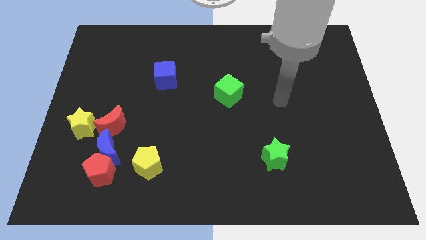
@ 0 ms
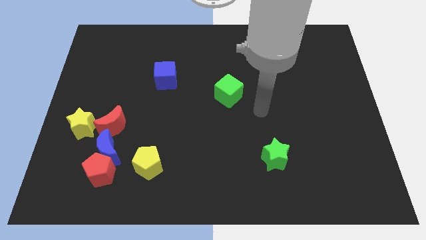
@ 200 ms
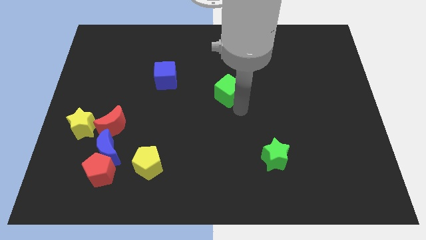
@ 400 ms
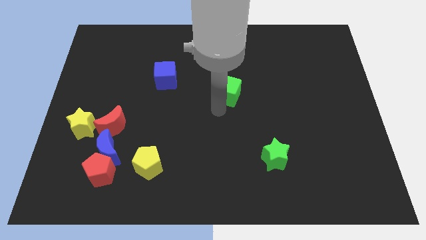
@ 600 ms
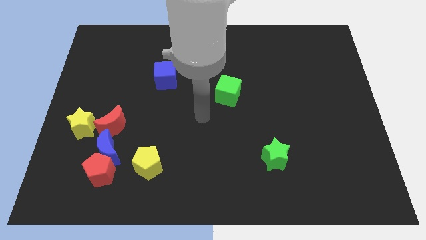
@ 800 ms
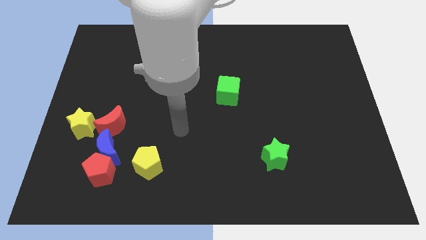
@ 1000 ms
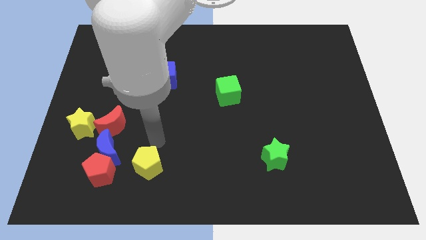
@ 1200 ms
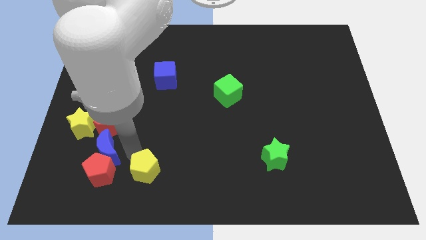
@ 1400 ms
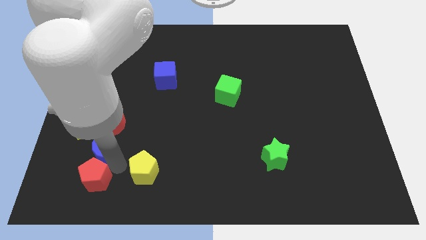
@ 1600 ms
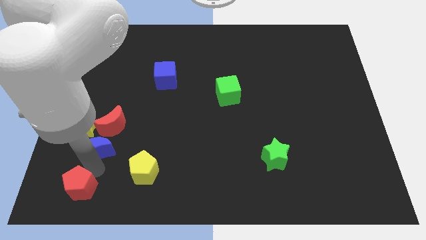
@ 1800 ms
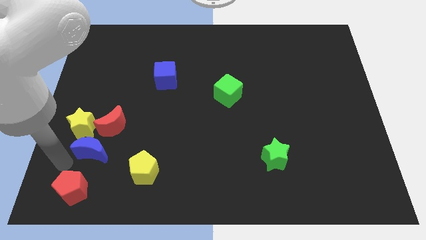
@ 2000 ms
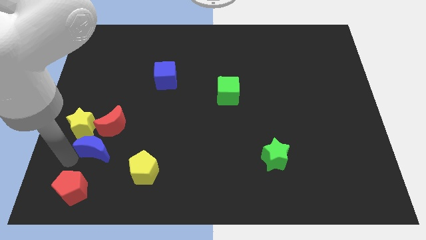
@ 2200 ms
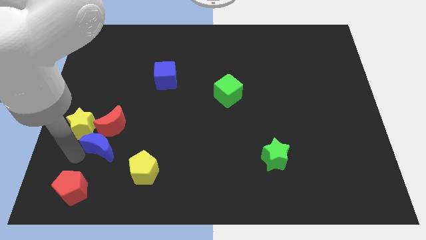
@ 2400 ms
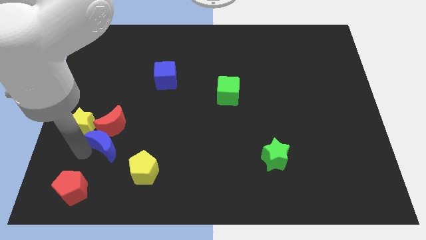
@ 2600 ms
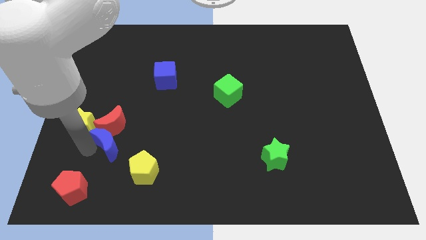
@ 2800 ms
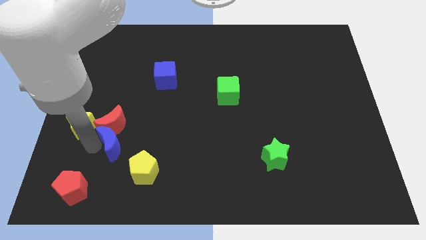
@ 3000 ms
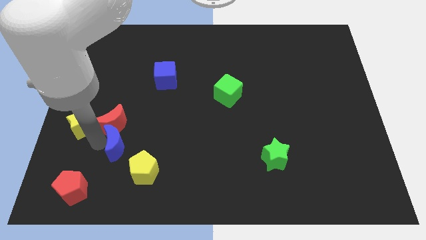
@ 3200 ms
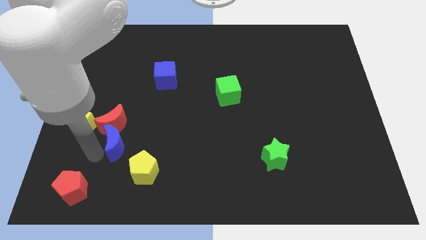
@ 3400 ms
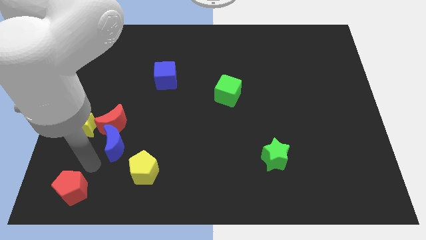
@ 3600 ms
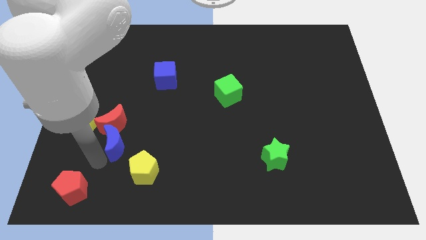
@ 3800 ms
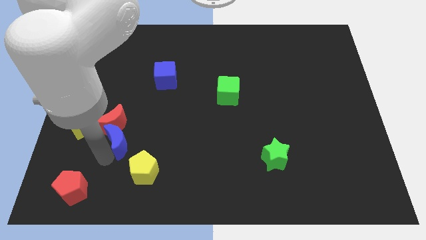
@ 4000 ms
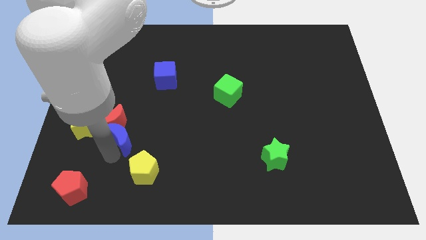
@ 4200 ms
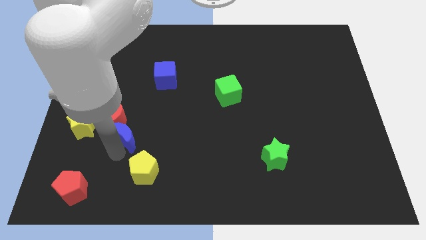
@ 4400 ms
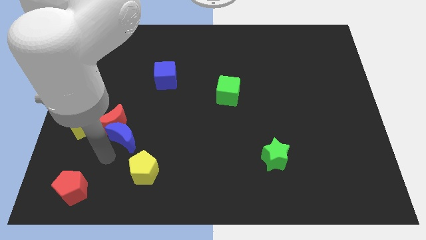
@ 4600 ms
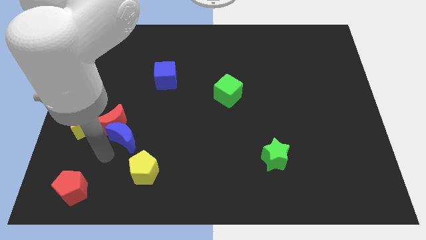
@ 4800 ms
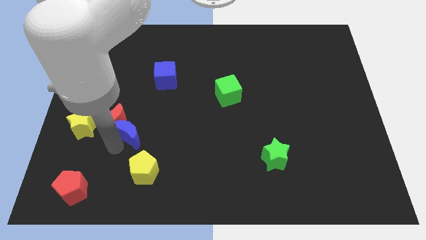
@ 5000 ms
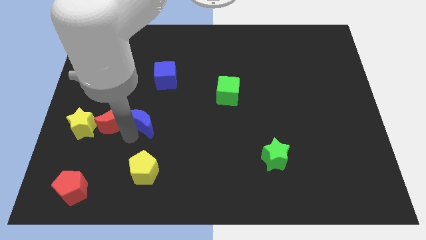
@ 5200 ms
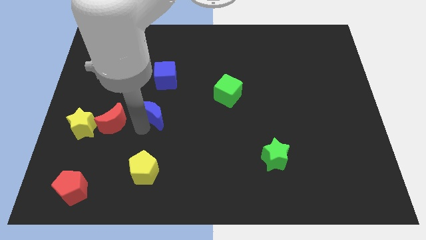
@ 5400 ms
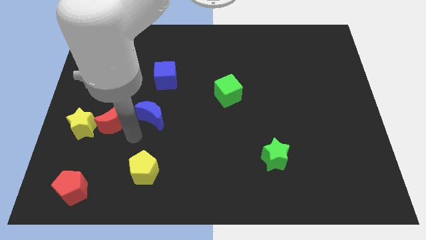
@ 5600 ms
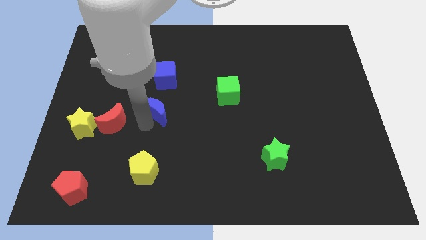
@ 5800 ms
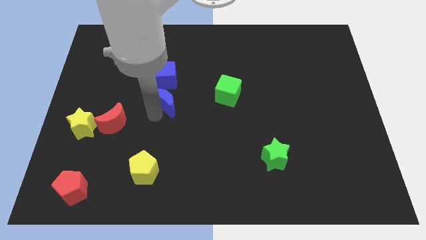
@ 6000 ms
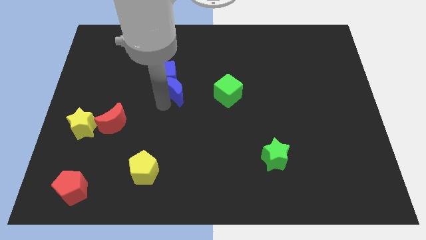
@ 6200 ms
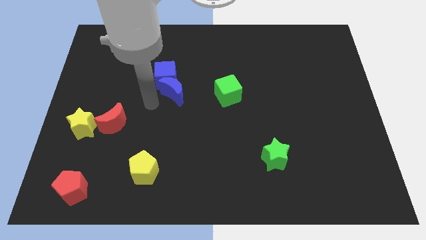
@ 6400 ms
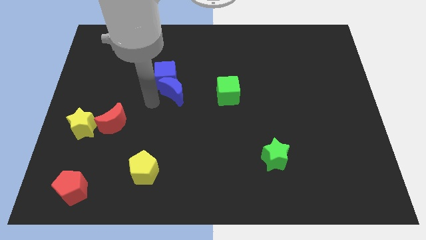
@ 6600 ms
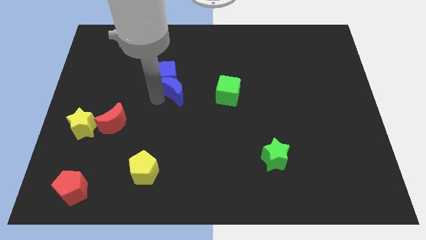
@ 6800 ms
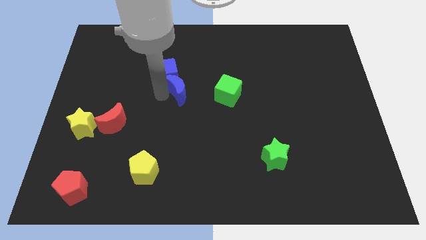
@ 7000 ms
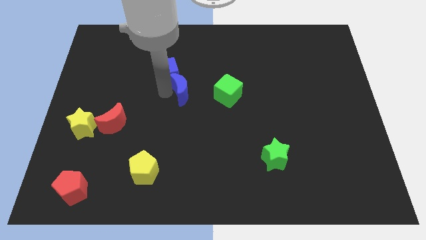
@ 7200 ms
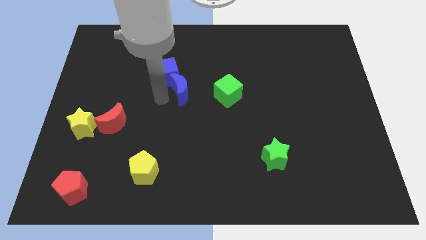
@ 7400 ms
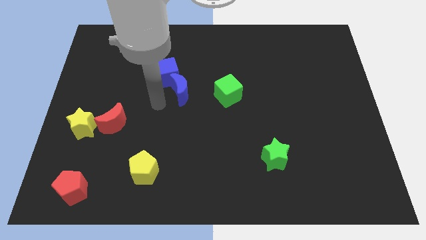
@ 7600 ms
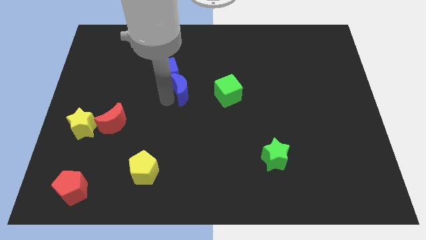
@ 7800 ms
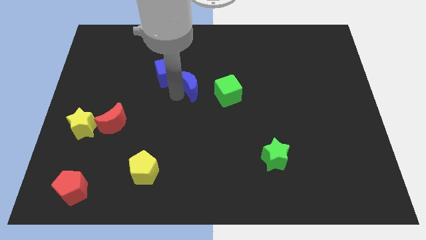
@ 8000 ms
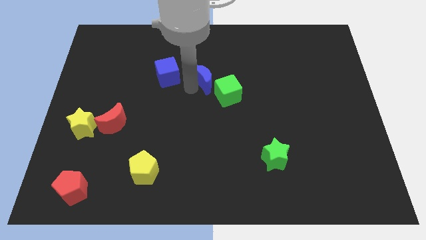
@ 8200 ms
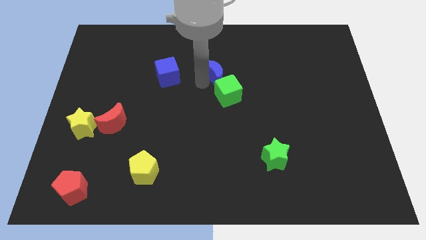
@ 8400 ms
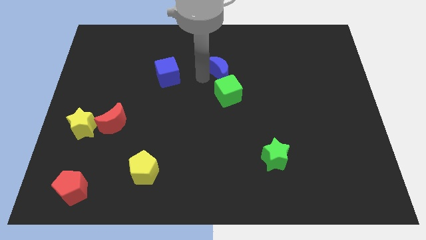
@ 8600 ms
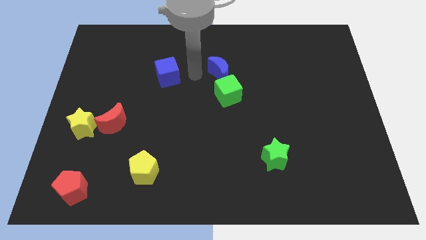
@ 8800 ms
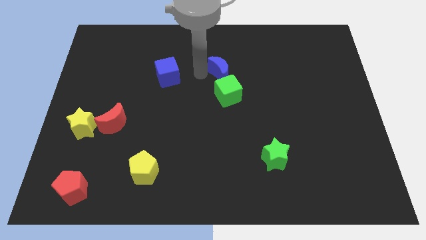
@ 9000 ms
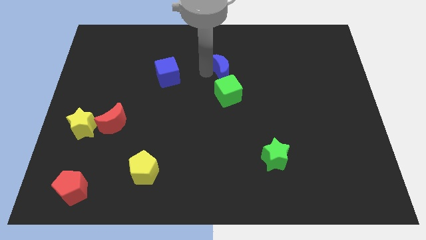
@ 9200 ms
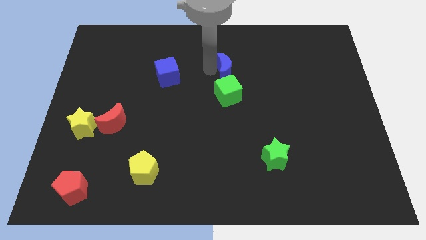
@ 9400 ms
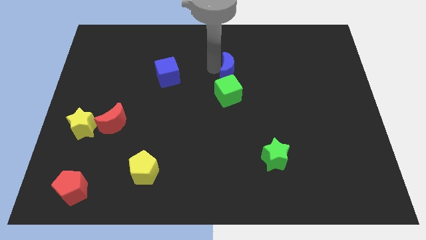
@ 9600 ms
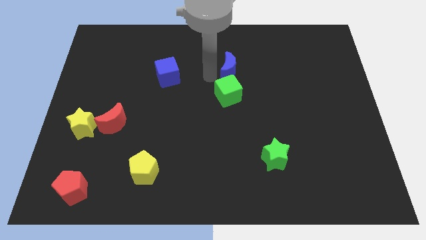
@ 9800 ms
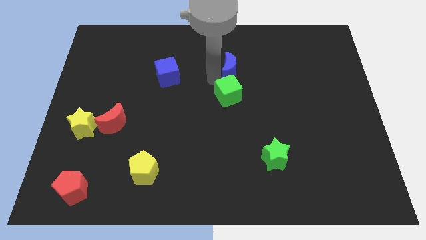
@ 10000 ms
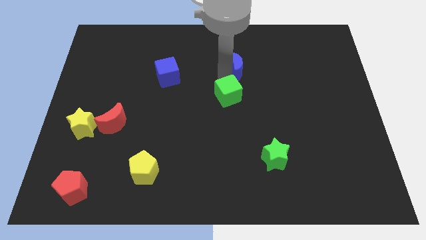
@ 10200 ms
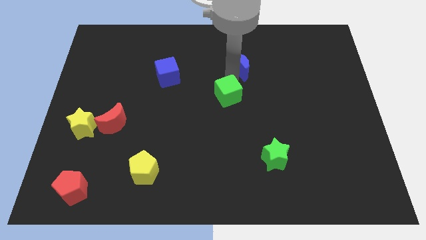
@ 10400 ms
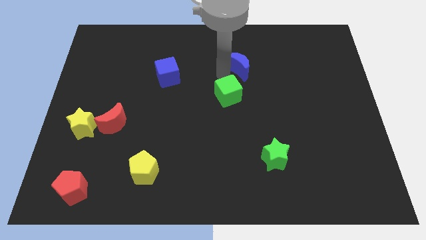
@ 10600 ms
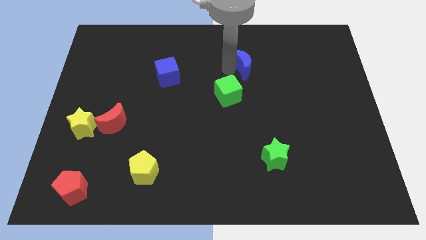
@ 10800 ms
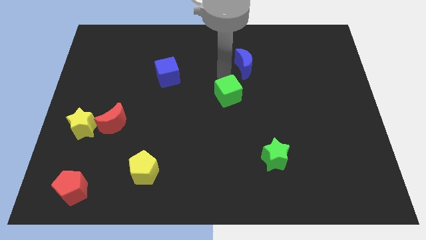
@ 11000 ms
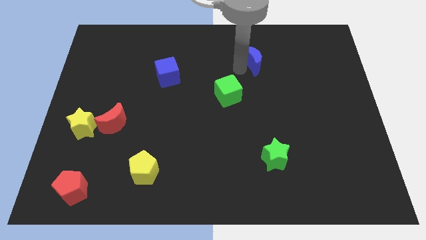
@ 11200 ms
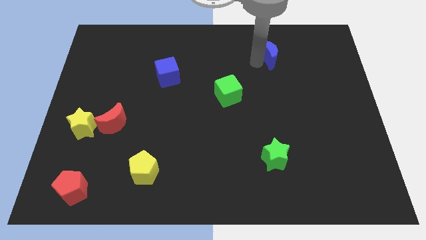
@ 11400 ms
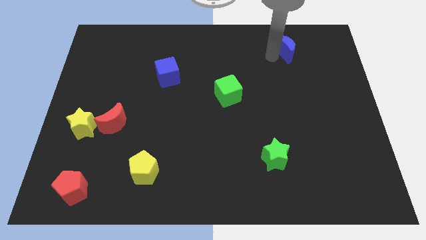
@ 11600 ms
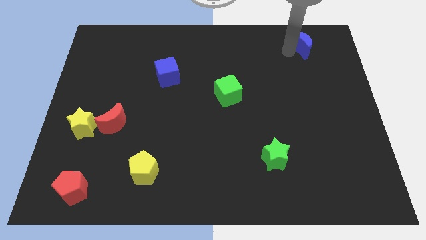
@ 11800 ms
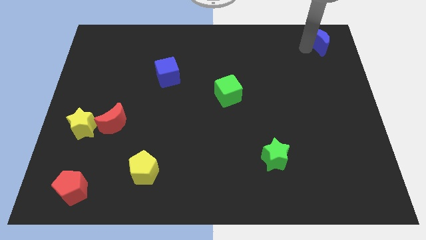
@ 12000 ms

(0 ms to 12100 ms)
put the blue moon to the top right corner

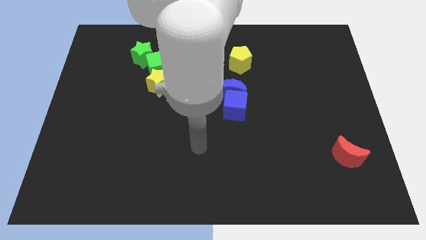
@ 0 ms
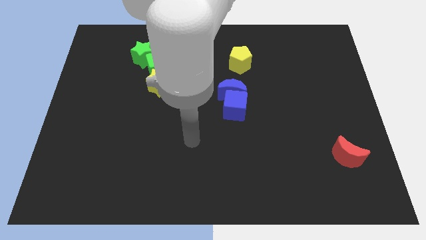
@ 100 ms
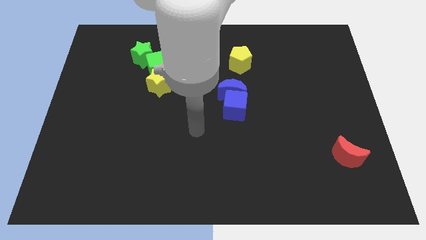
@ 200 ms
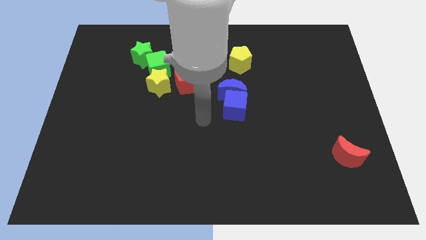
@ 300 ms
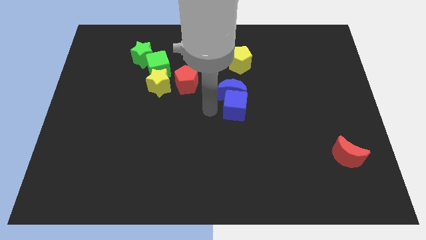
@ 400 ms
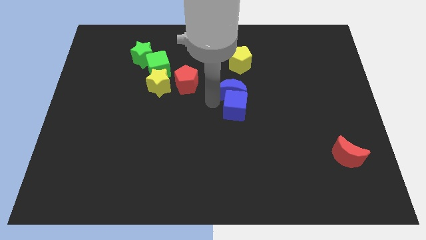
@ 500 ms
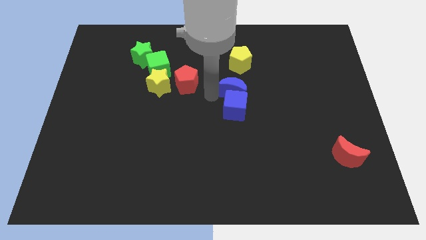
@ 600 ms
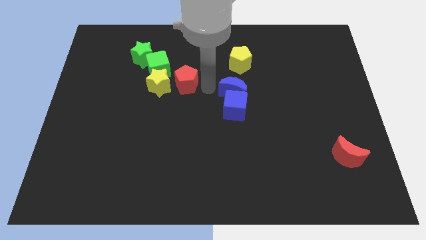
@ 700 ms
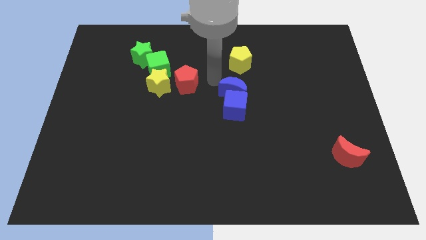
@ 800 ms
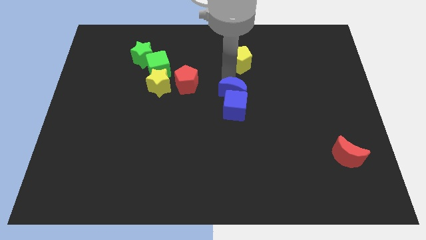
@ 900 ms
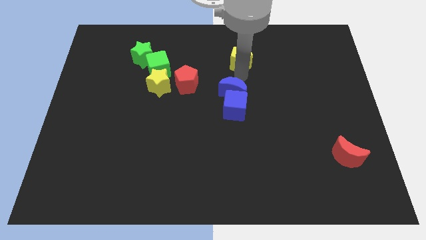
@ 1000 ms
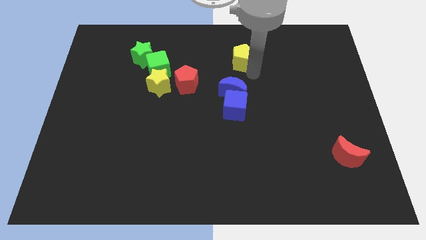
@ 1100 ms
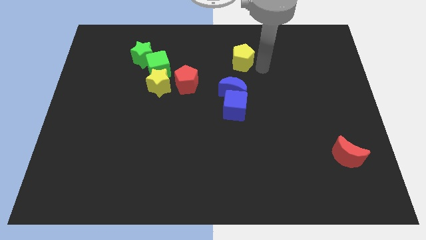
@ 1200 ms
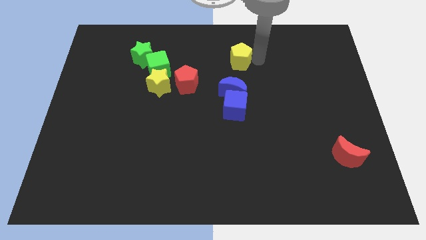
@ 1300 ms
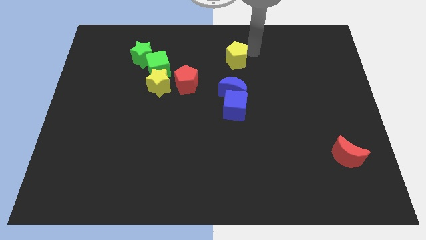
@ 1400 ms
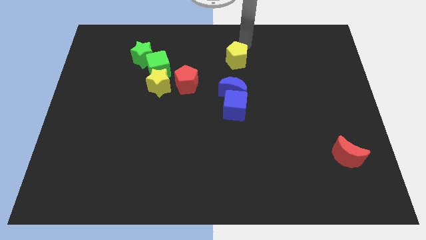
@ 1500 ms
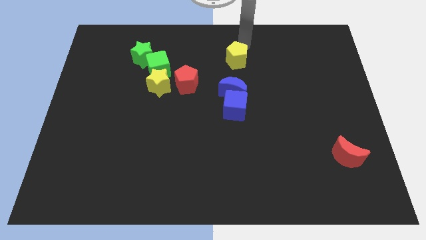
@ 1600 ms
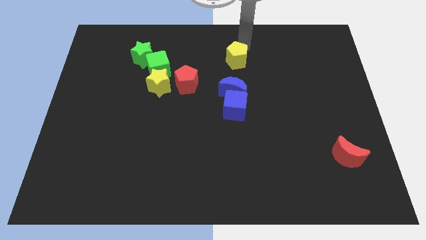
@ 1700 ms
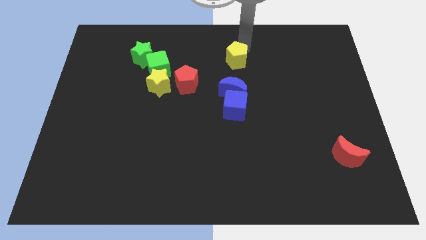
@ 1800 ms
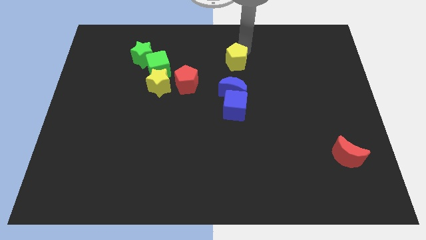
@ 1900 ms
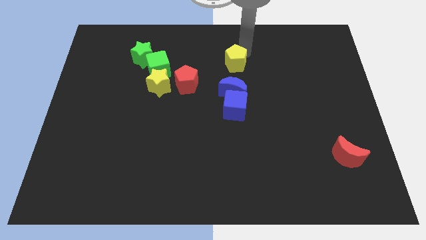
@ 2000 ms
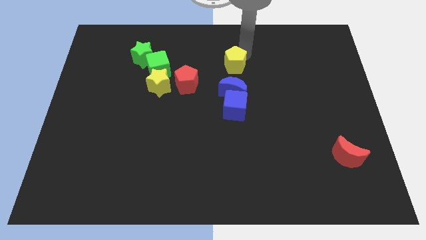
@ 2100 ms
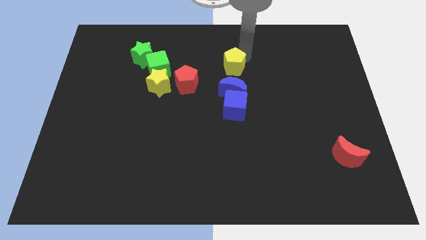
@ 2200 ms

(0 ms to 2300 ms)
push the yellow pentagon to the middle of the board

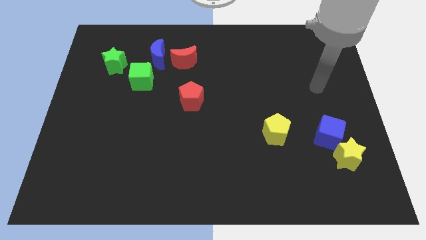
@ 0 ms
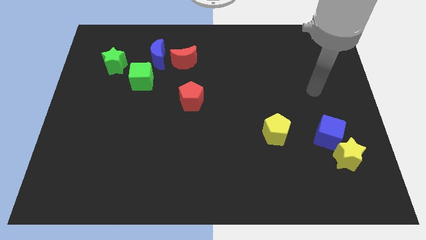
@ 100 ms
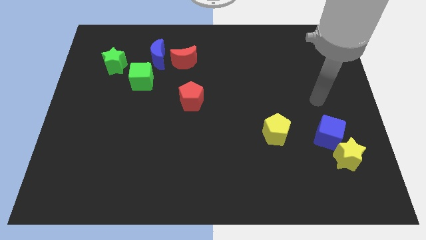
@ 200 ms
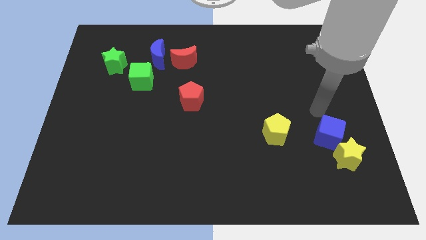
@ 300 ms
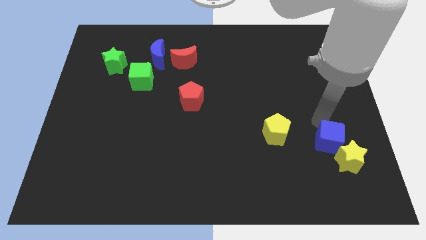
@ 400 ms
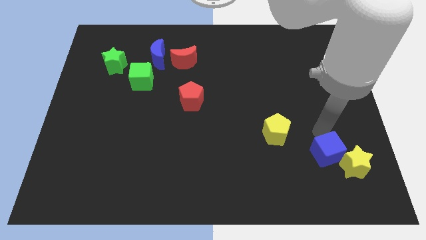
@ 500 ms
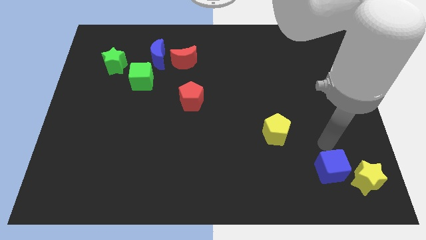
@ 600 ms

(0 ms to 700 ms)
put the yellow star to the lower right corner
